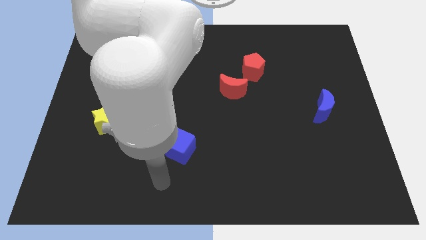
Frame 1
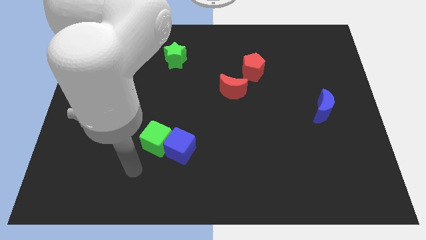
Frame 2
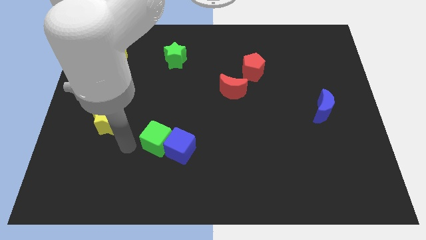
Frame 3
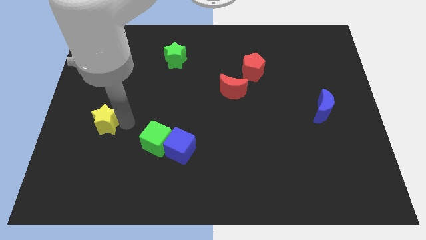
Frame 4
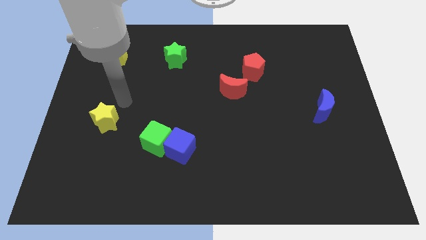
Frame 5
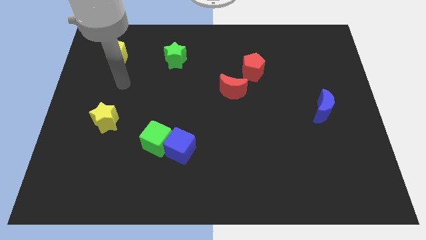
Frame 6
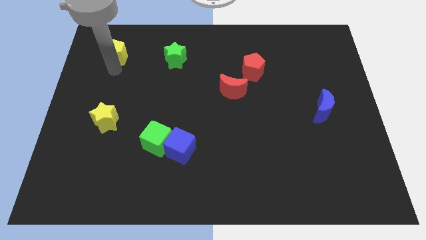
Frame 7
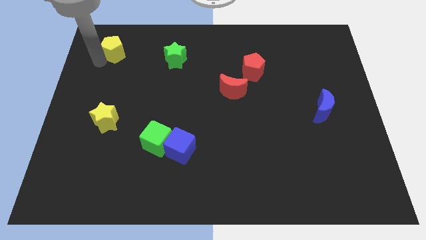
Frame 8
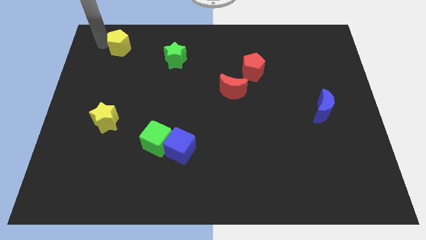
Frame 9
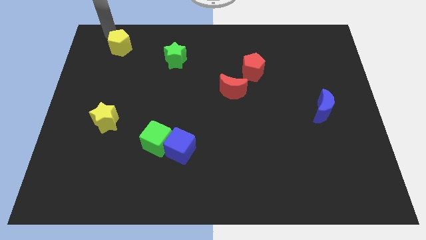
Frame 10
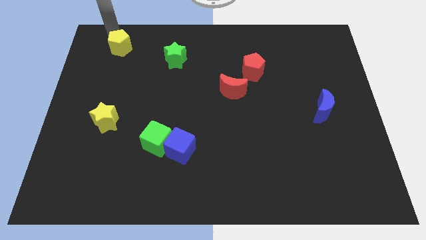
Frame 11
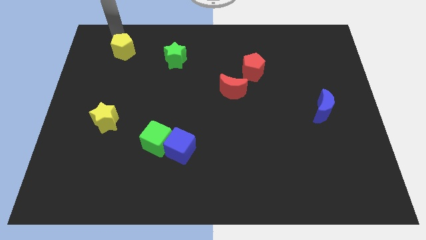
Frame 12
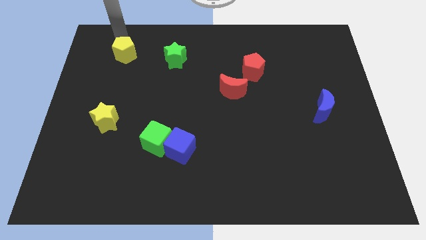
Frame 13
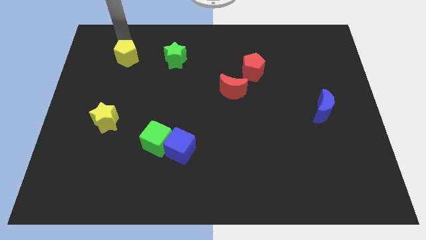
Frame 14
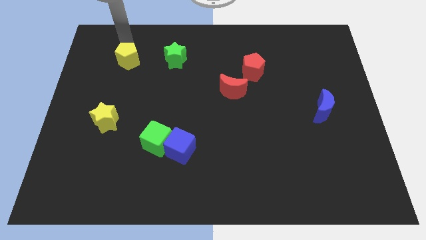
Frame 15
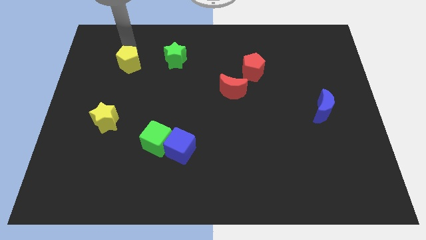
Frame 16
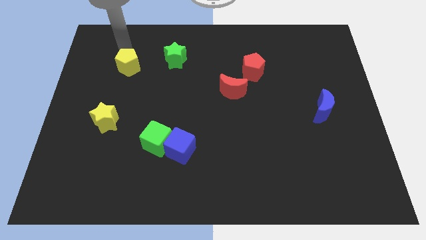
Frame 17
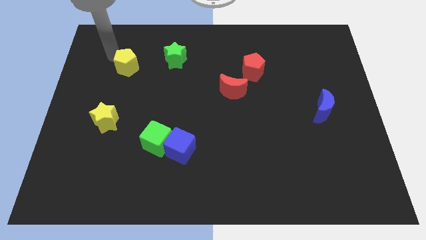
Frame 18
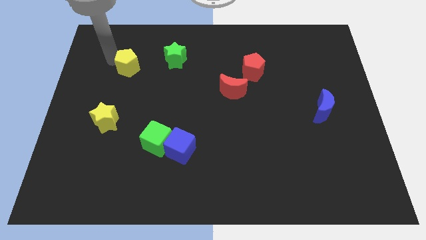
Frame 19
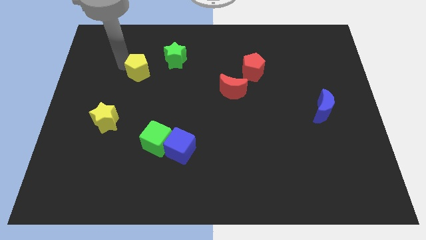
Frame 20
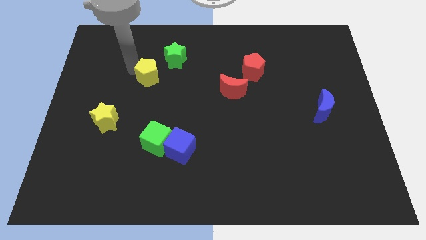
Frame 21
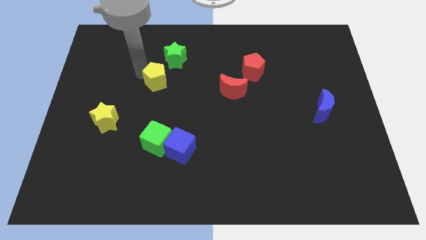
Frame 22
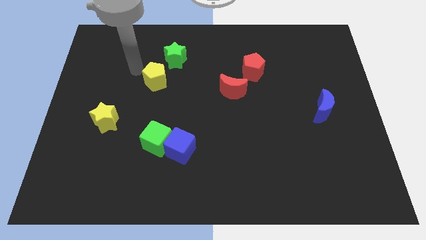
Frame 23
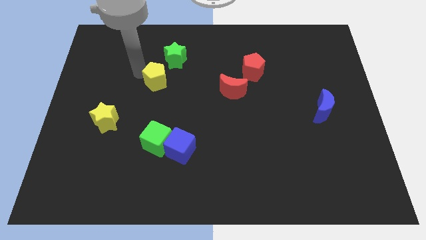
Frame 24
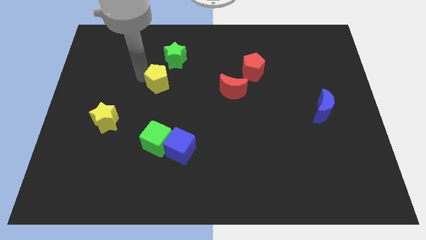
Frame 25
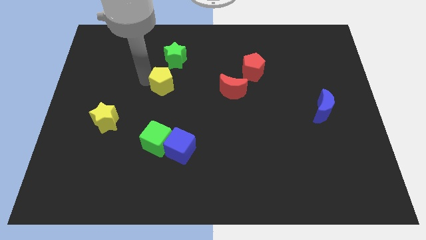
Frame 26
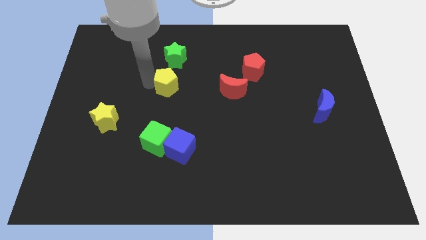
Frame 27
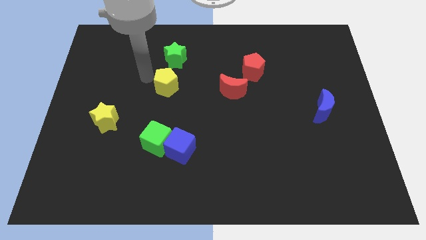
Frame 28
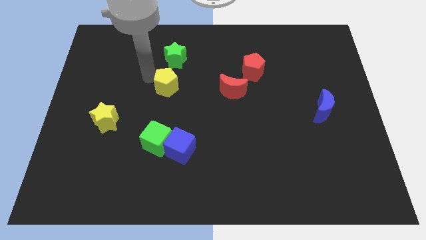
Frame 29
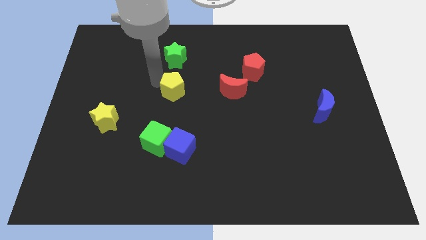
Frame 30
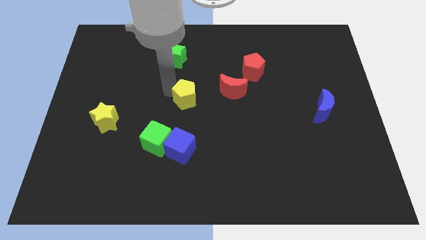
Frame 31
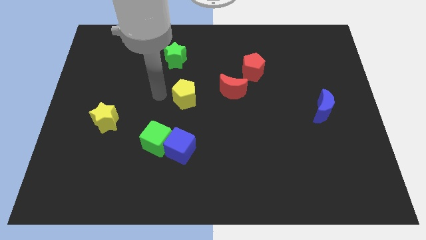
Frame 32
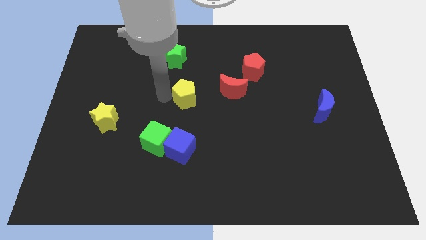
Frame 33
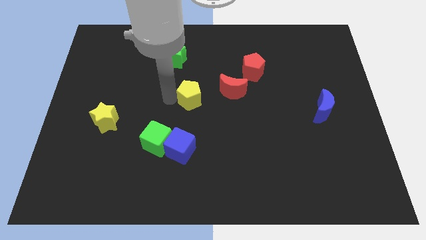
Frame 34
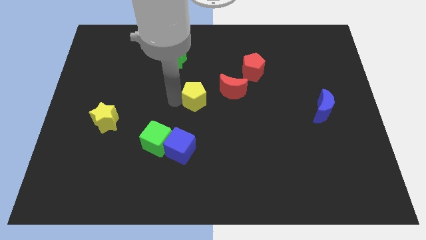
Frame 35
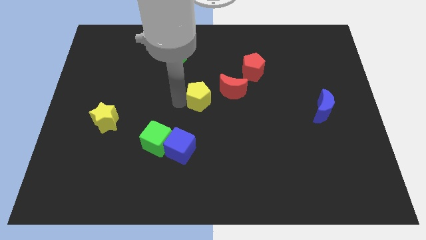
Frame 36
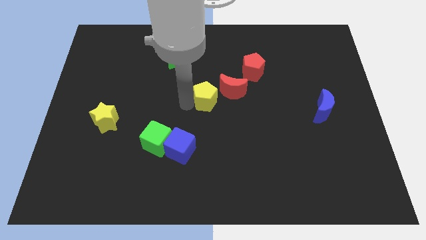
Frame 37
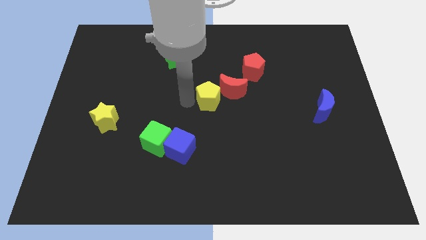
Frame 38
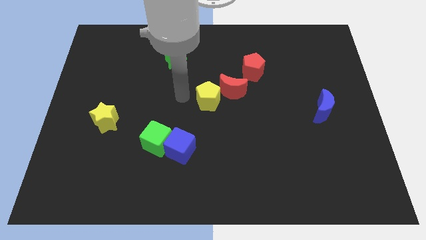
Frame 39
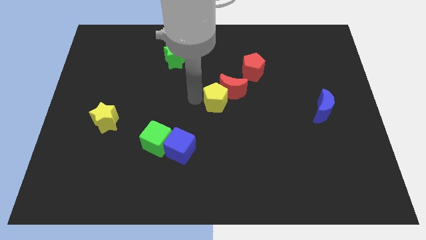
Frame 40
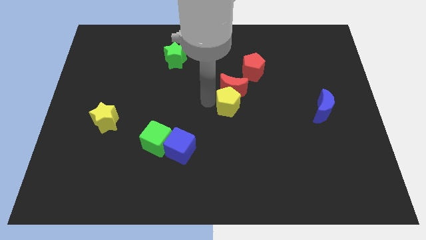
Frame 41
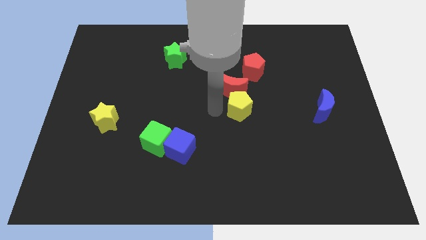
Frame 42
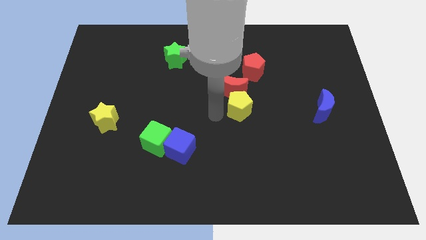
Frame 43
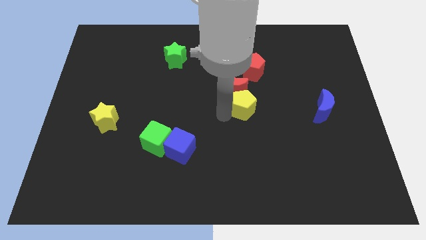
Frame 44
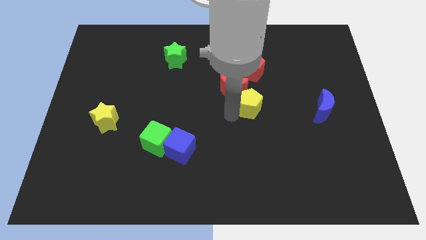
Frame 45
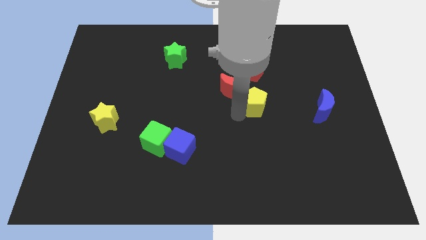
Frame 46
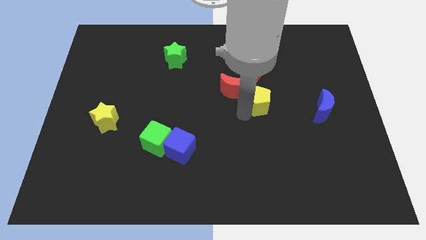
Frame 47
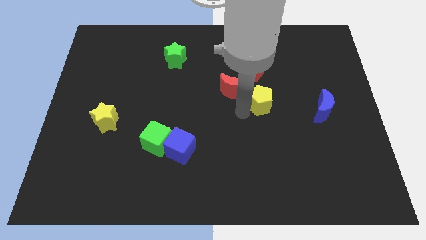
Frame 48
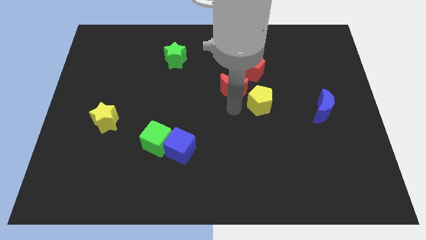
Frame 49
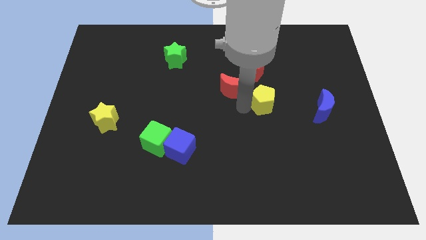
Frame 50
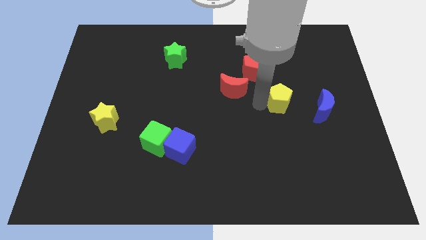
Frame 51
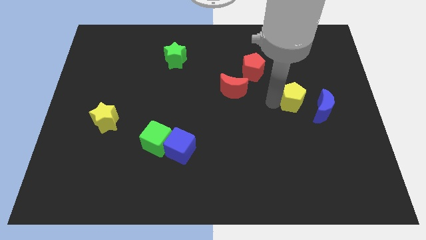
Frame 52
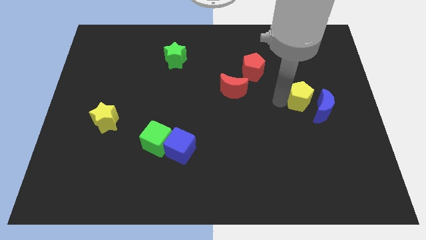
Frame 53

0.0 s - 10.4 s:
put the yellow pentagon towards the blue moon

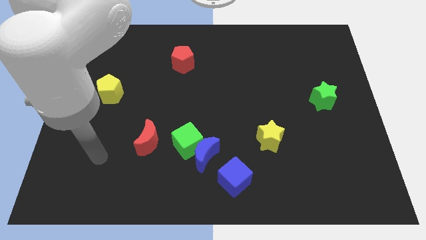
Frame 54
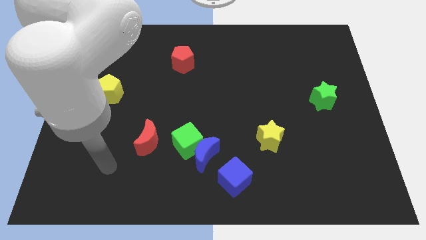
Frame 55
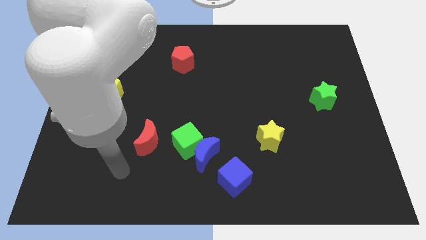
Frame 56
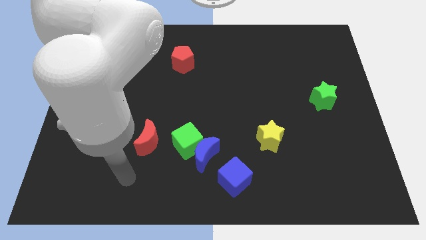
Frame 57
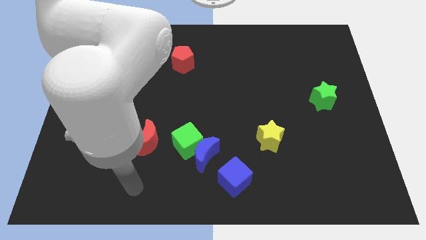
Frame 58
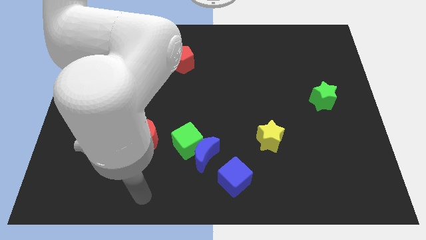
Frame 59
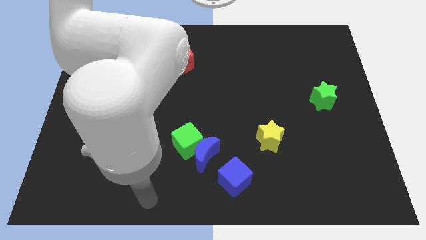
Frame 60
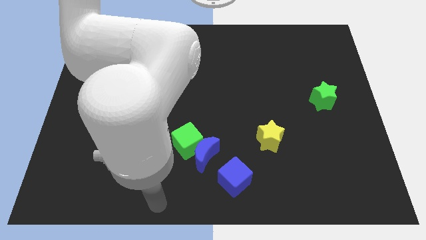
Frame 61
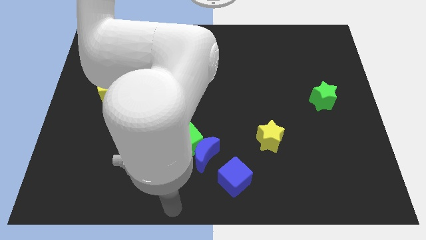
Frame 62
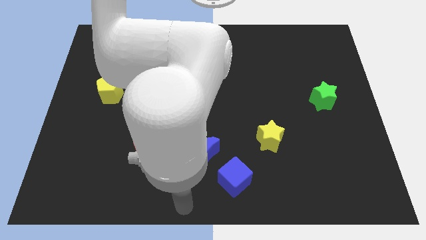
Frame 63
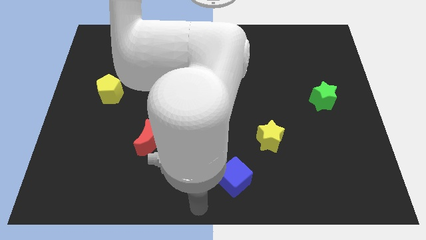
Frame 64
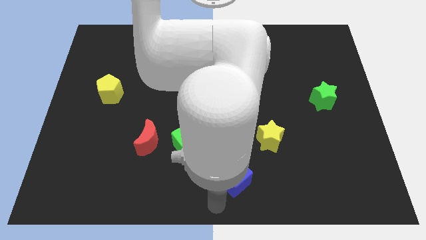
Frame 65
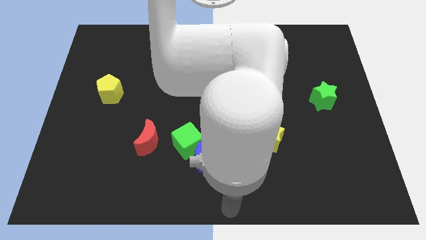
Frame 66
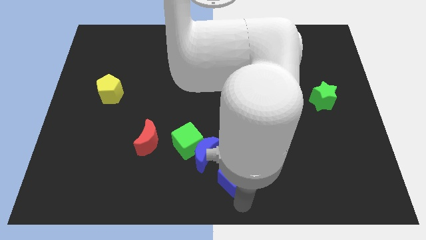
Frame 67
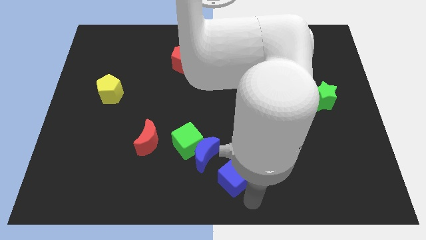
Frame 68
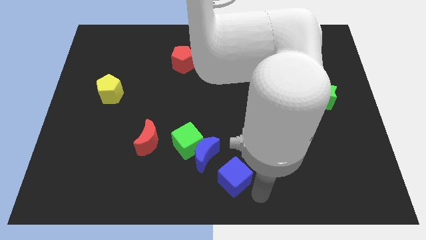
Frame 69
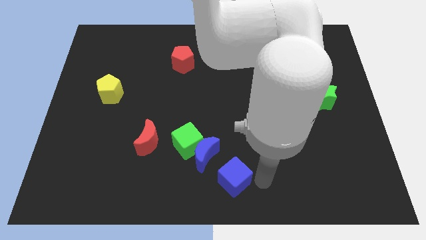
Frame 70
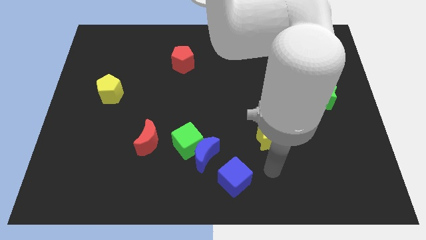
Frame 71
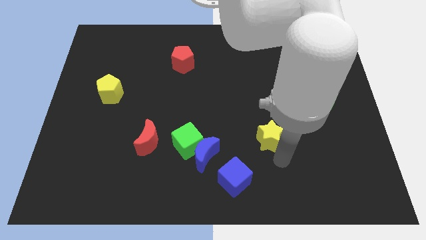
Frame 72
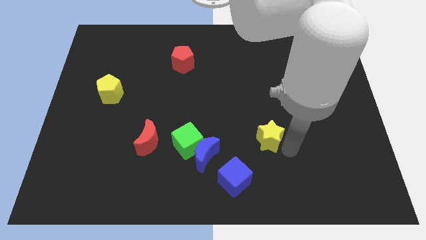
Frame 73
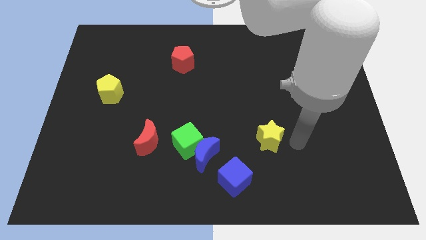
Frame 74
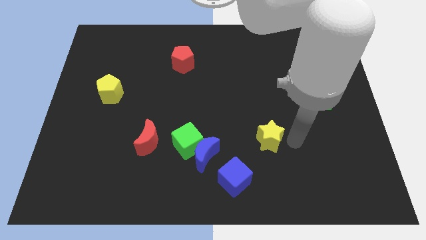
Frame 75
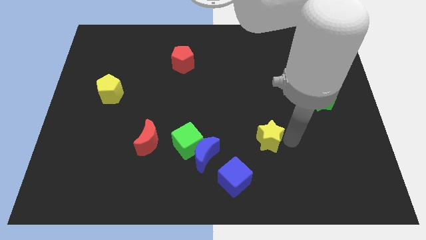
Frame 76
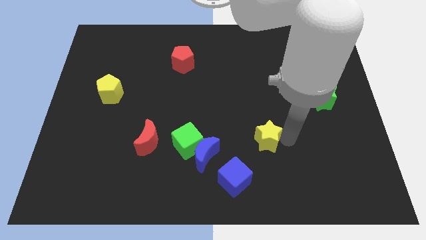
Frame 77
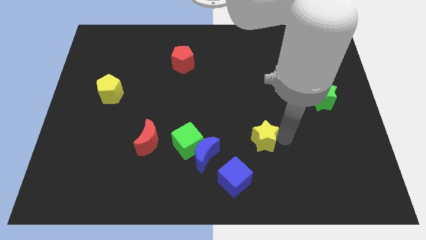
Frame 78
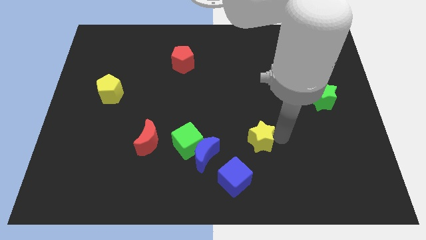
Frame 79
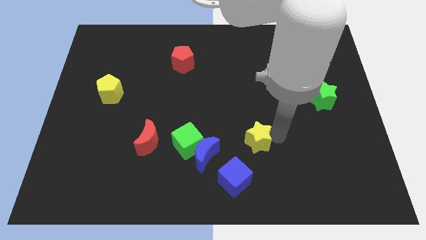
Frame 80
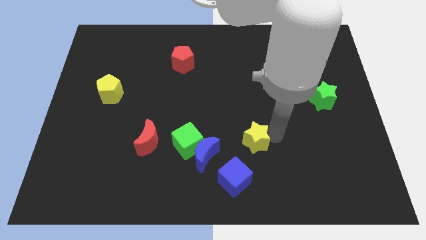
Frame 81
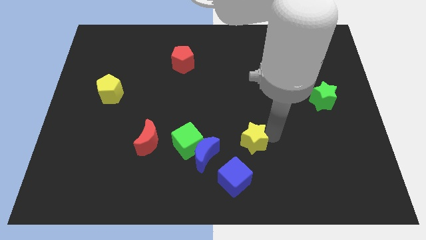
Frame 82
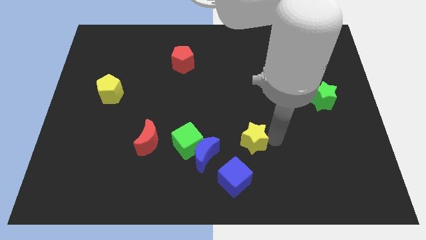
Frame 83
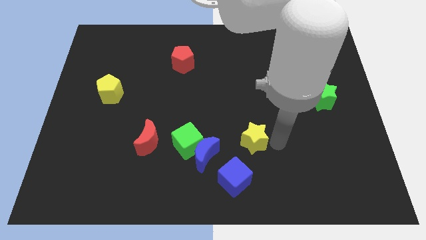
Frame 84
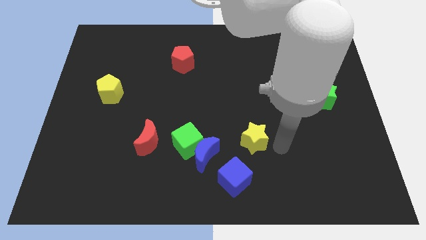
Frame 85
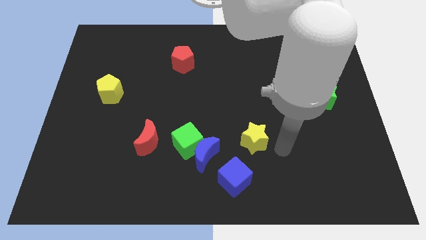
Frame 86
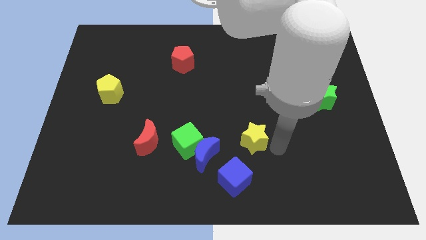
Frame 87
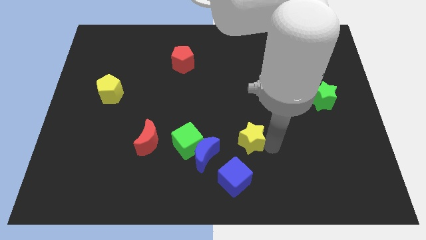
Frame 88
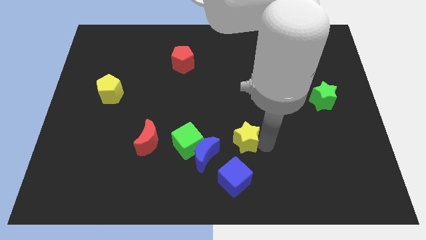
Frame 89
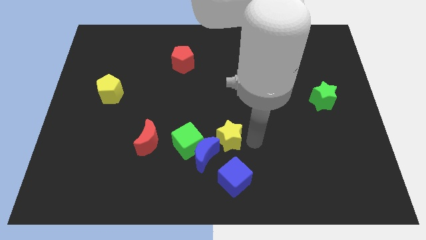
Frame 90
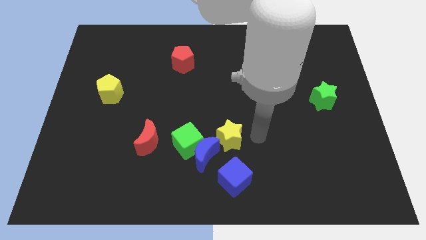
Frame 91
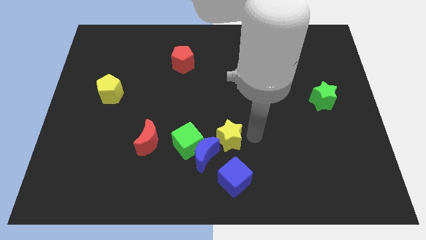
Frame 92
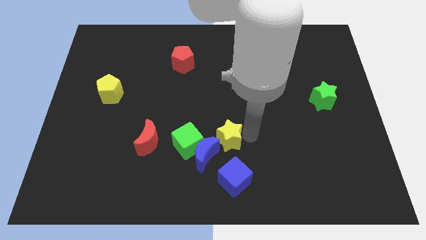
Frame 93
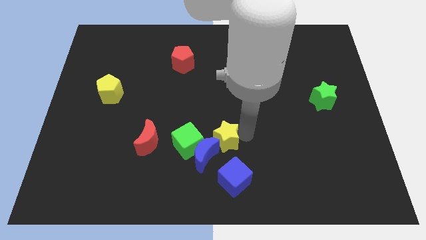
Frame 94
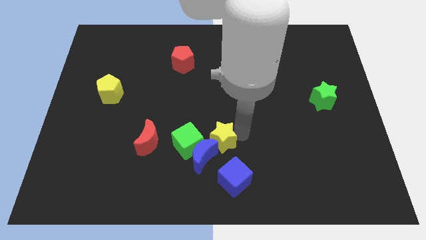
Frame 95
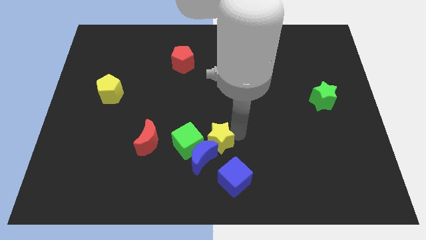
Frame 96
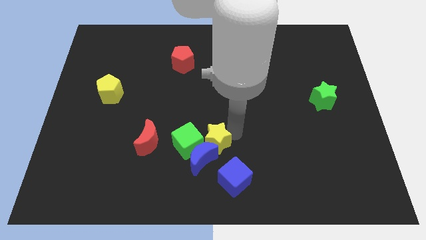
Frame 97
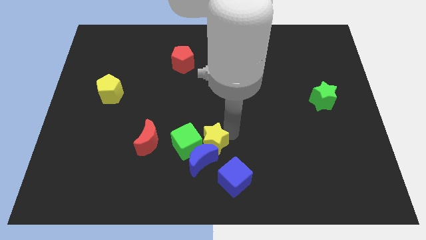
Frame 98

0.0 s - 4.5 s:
slide the yellow star to the green cube
